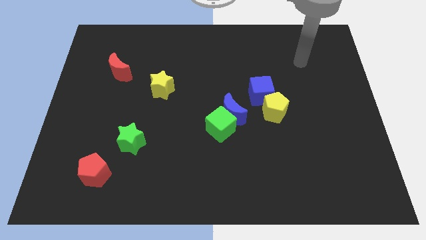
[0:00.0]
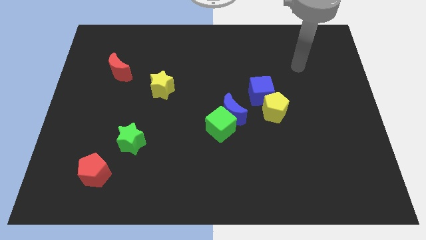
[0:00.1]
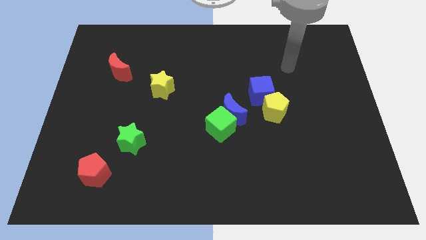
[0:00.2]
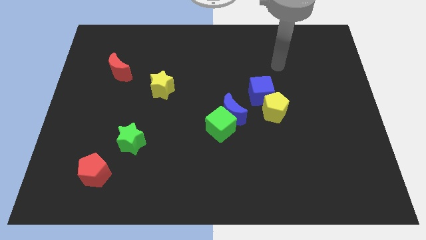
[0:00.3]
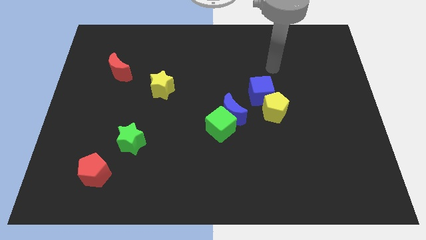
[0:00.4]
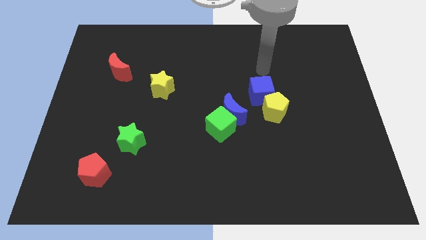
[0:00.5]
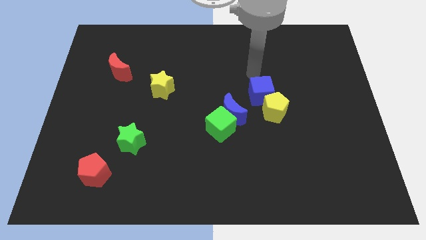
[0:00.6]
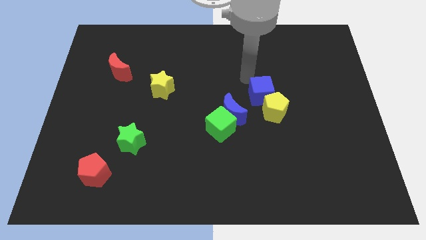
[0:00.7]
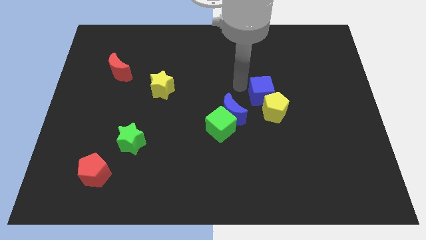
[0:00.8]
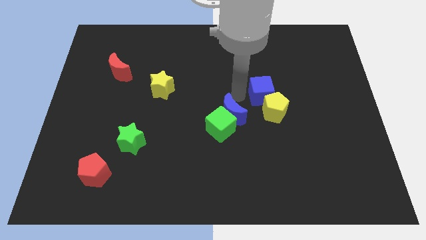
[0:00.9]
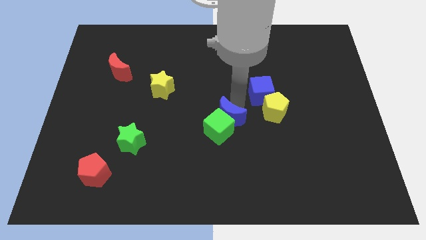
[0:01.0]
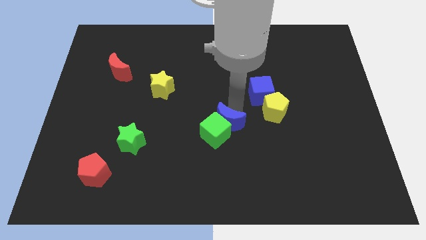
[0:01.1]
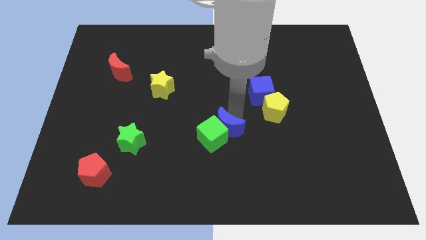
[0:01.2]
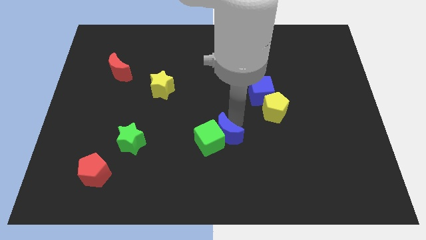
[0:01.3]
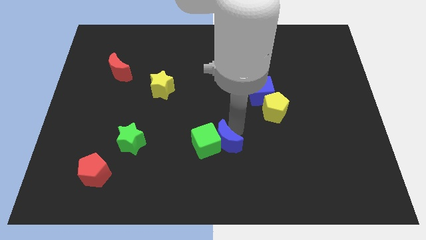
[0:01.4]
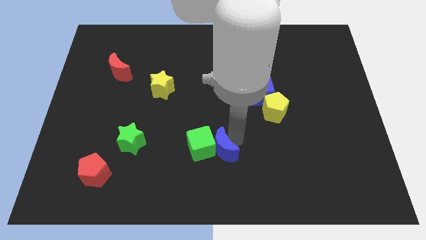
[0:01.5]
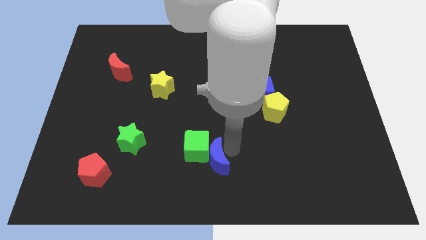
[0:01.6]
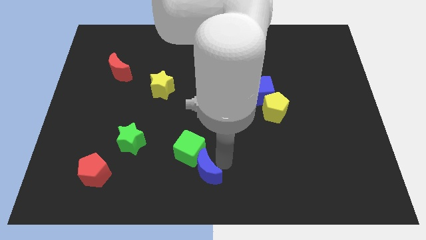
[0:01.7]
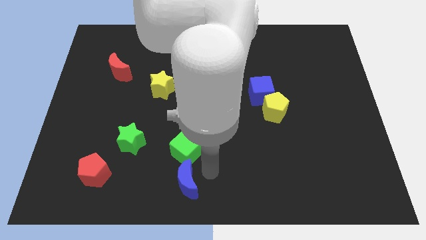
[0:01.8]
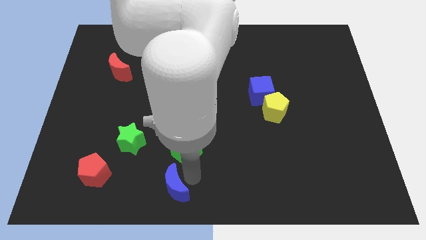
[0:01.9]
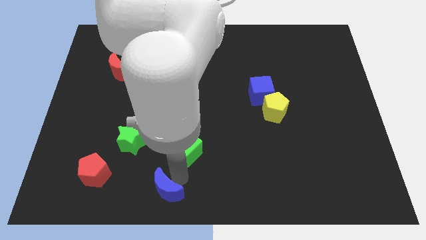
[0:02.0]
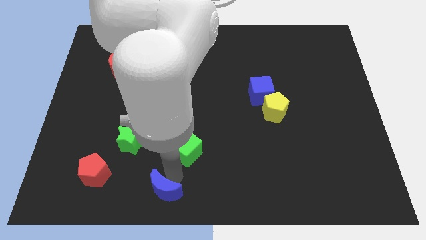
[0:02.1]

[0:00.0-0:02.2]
pull the green cube apart from the blue moon

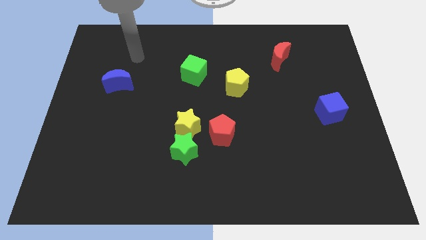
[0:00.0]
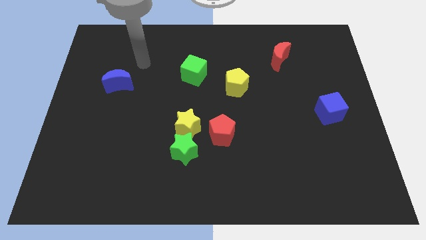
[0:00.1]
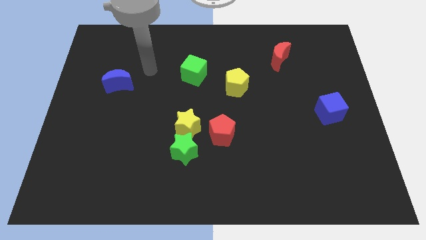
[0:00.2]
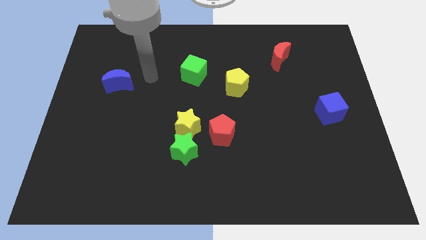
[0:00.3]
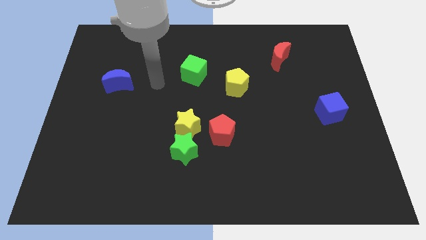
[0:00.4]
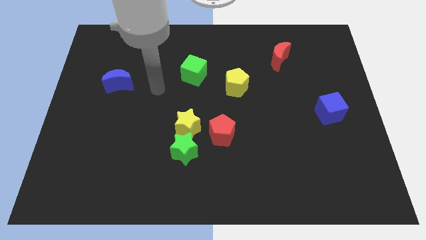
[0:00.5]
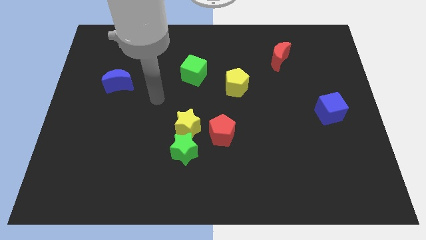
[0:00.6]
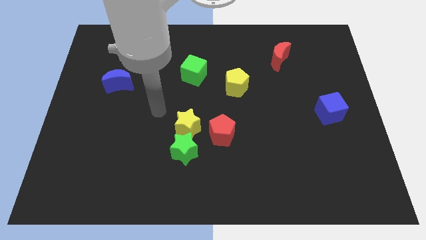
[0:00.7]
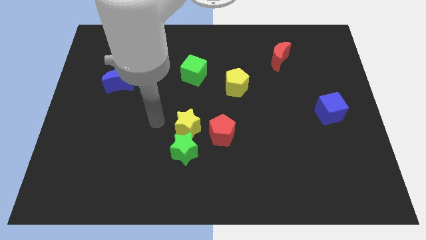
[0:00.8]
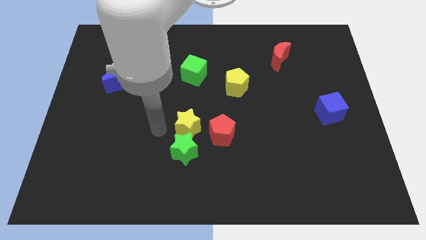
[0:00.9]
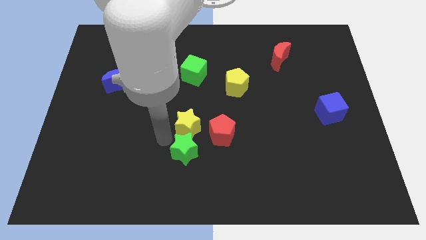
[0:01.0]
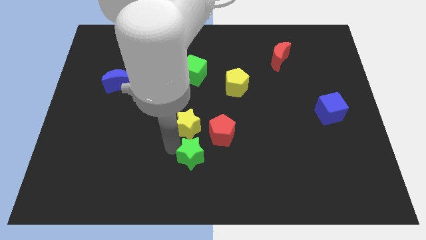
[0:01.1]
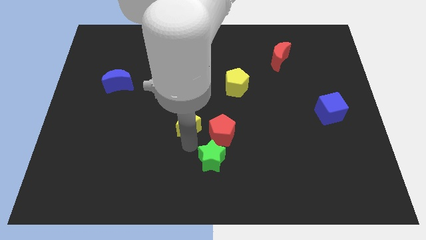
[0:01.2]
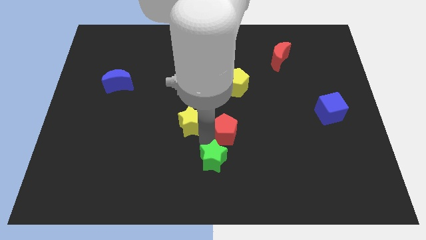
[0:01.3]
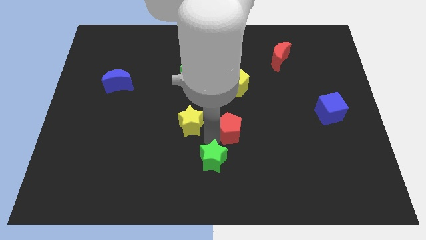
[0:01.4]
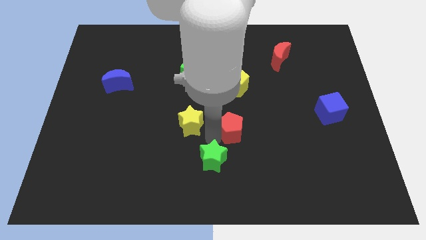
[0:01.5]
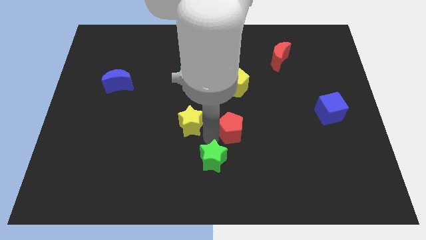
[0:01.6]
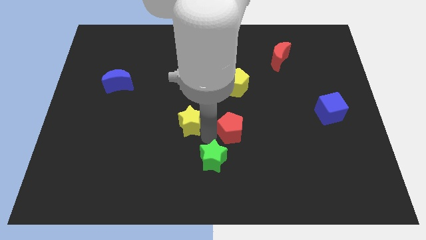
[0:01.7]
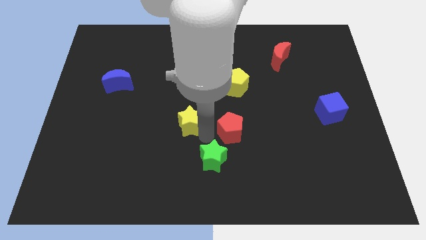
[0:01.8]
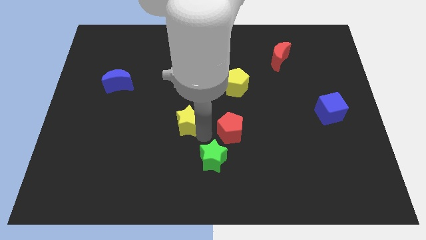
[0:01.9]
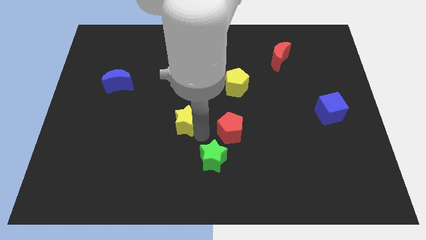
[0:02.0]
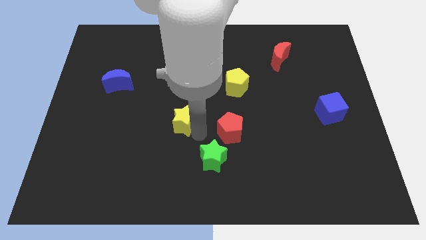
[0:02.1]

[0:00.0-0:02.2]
move the yellow star away from the green star and red pentagon

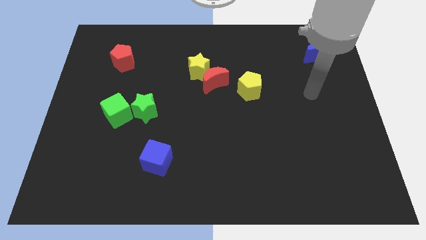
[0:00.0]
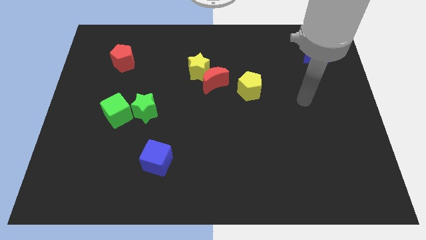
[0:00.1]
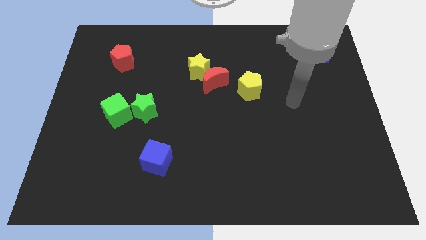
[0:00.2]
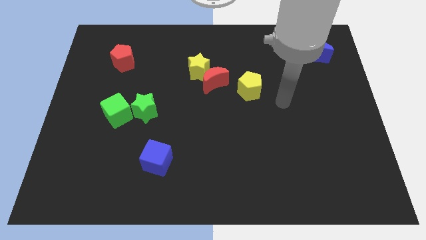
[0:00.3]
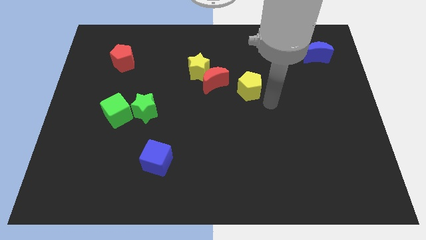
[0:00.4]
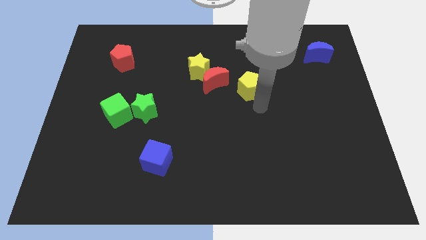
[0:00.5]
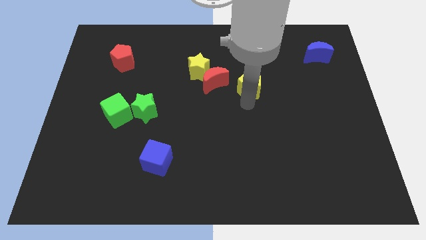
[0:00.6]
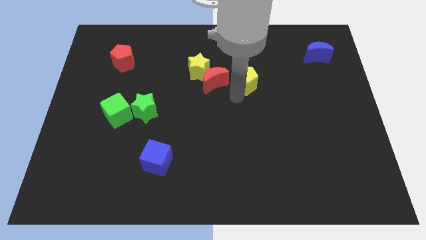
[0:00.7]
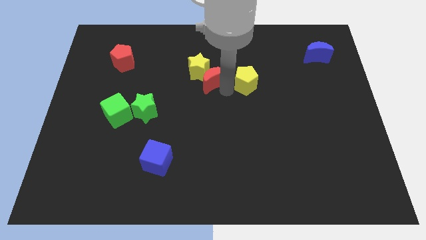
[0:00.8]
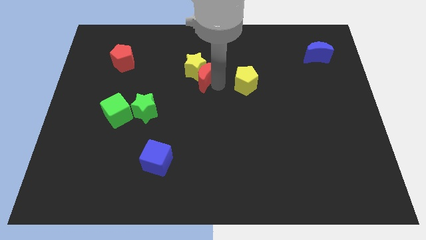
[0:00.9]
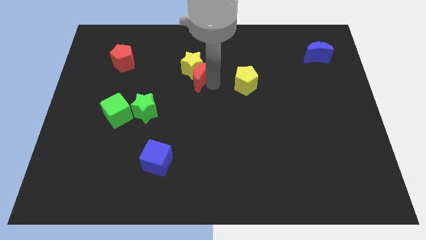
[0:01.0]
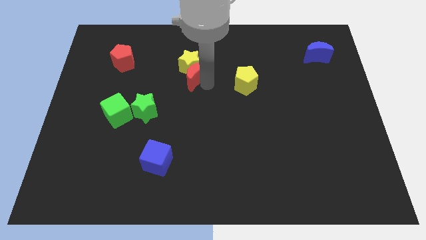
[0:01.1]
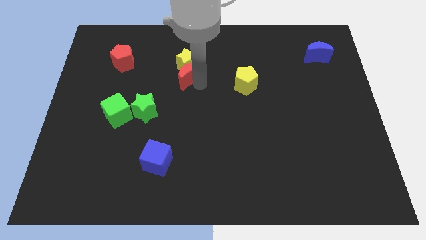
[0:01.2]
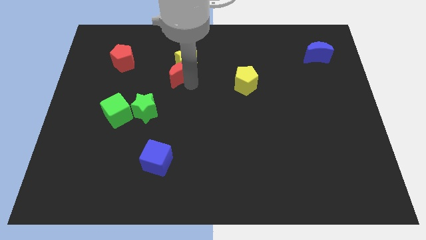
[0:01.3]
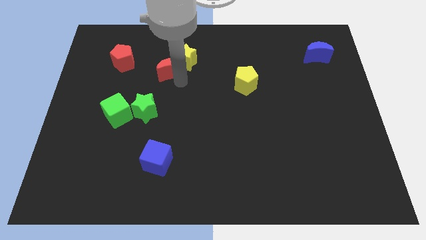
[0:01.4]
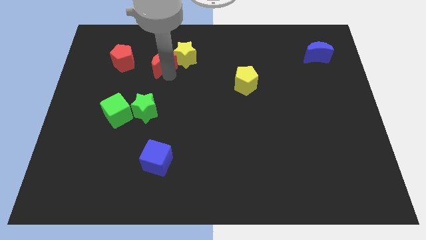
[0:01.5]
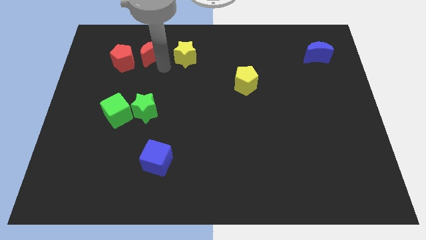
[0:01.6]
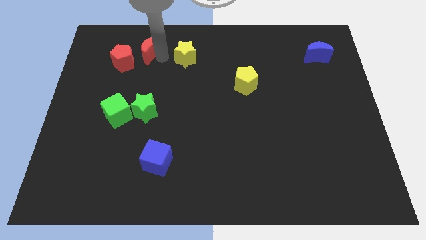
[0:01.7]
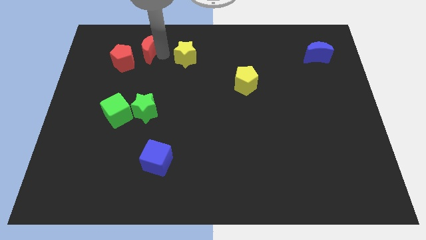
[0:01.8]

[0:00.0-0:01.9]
separate the yellow star from the red moon

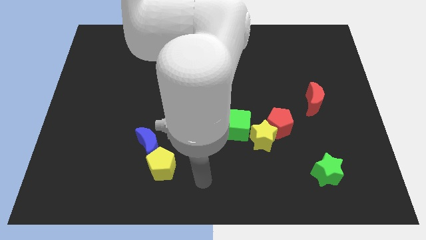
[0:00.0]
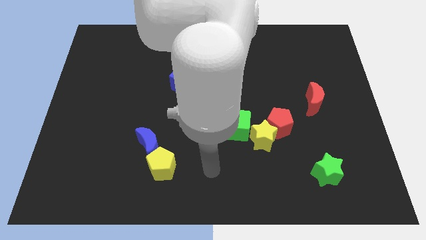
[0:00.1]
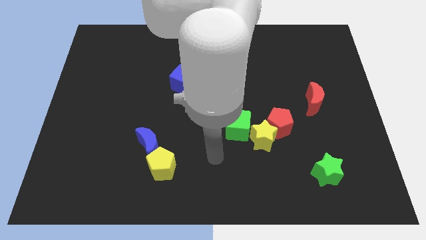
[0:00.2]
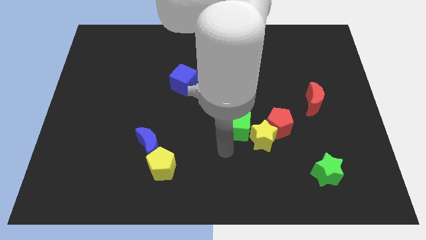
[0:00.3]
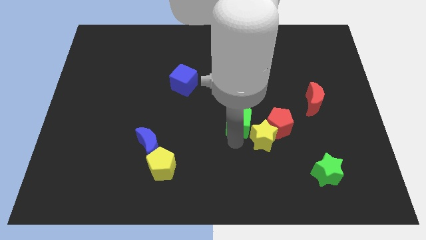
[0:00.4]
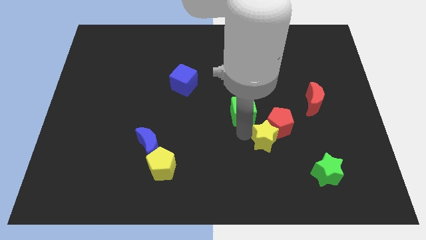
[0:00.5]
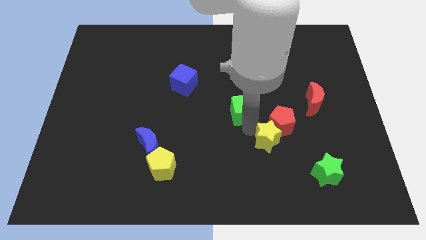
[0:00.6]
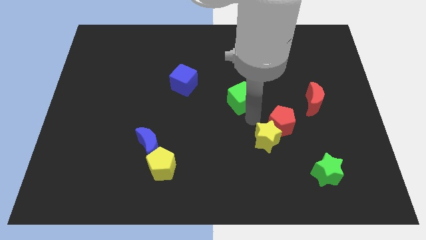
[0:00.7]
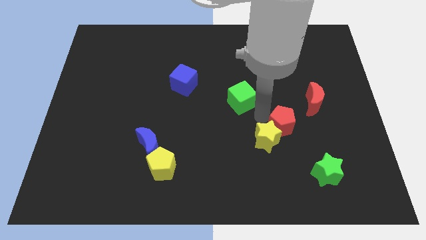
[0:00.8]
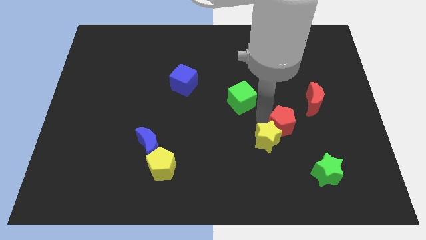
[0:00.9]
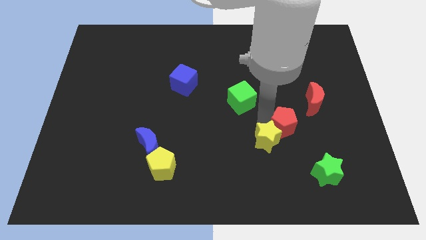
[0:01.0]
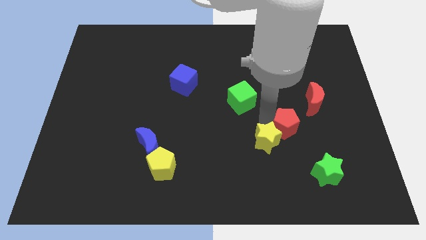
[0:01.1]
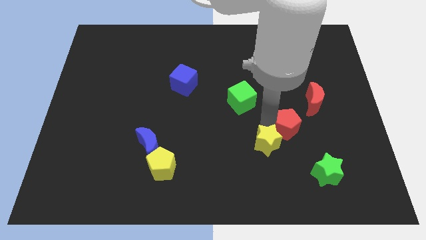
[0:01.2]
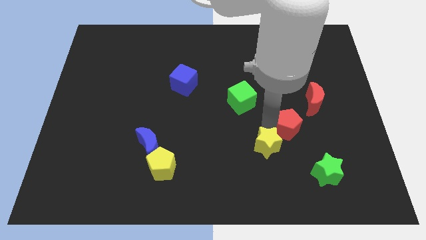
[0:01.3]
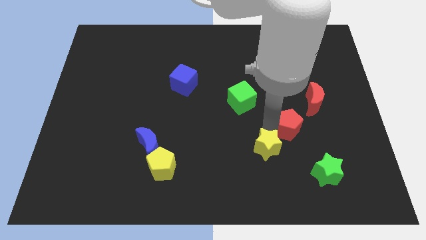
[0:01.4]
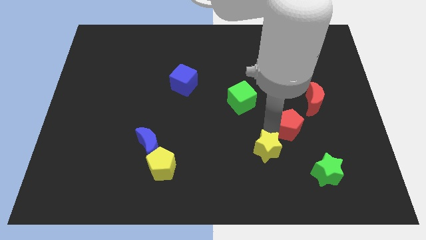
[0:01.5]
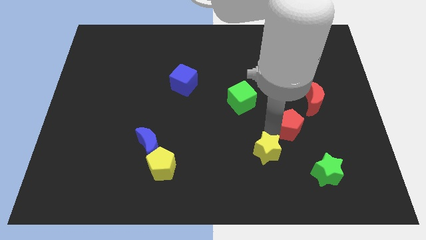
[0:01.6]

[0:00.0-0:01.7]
pull the yellow star apart from the red pentagon and green cube

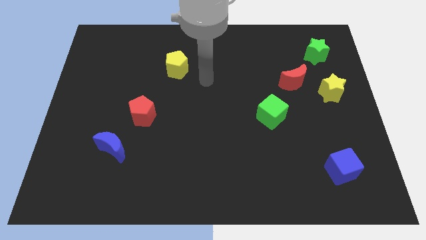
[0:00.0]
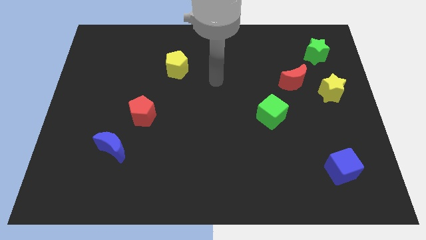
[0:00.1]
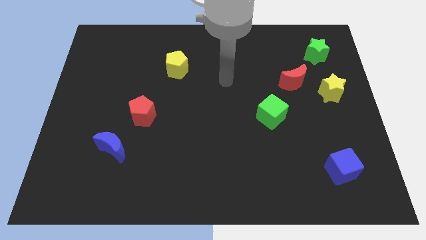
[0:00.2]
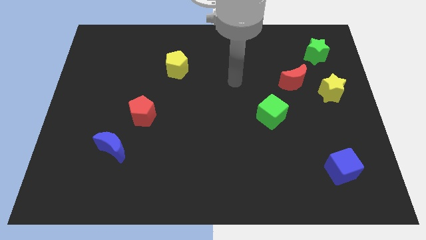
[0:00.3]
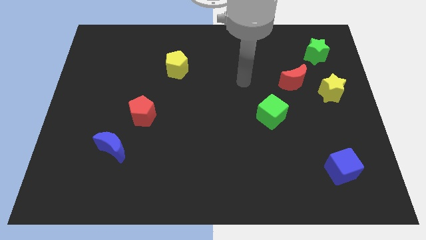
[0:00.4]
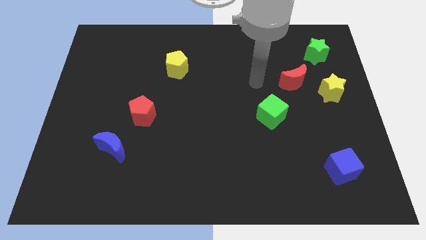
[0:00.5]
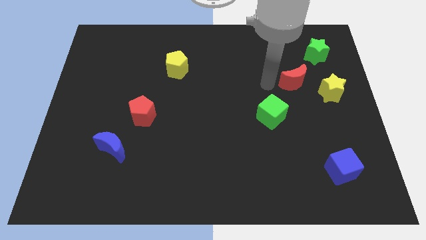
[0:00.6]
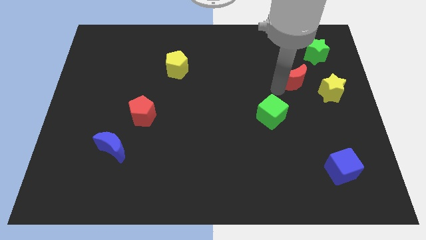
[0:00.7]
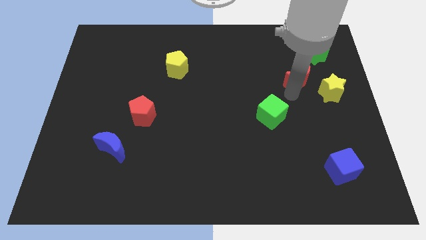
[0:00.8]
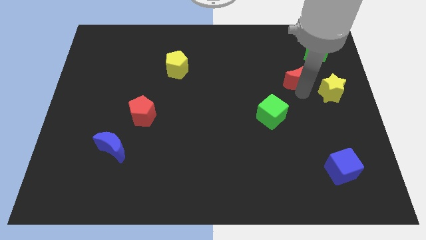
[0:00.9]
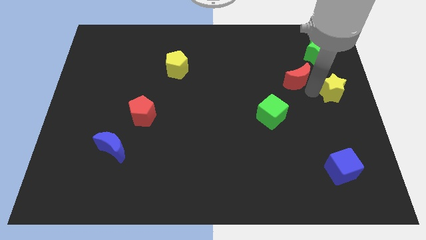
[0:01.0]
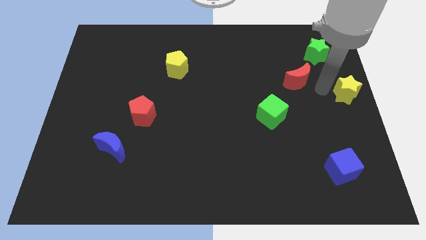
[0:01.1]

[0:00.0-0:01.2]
move the red moon away from the yellow star

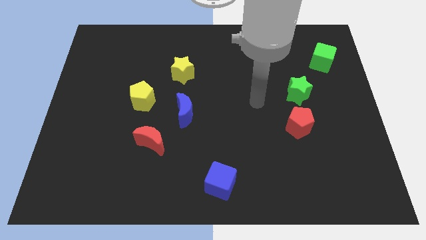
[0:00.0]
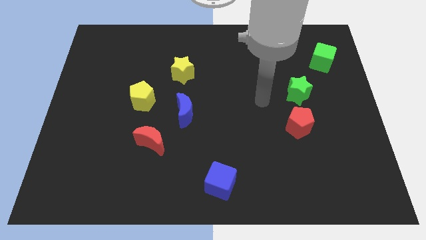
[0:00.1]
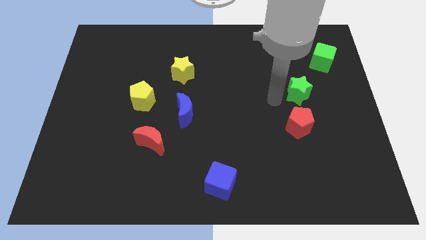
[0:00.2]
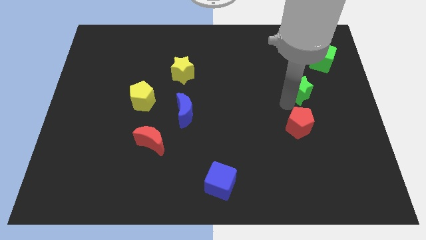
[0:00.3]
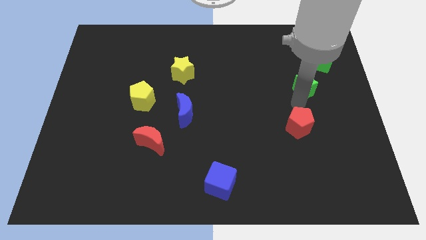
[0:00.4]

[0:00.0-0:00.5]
separate the red pentagon from the green star
